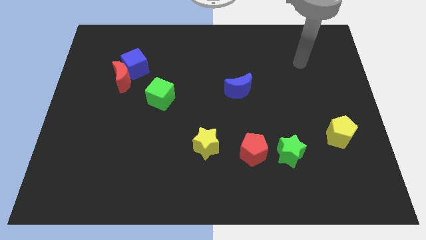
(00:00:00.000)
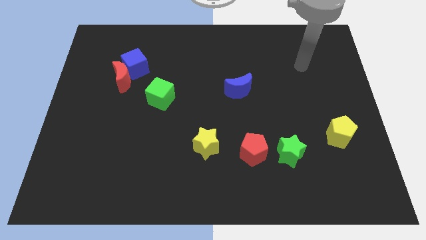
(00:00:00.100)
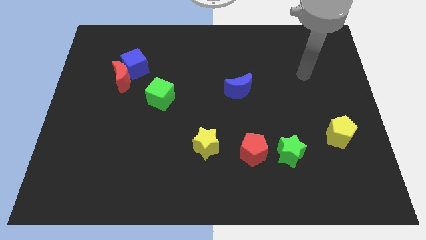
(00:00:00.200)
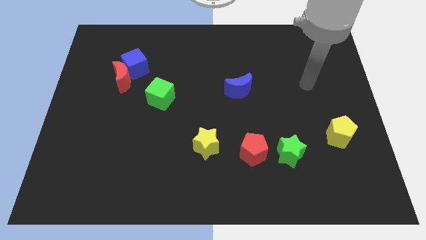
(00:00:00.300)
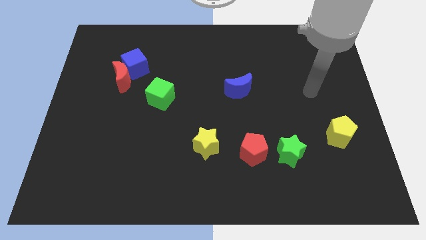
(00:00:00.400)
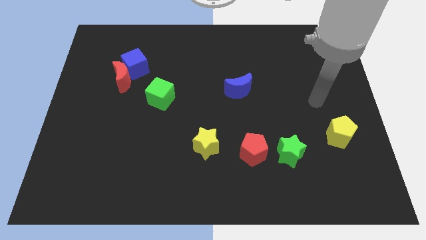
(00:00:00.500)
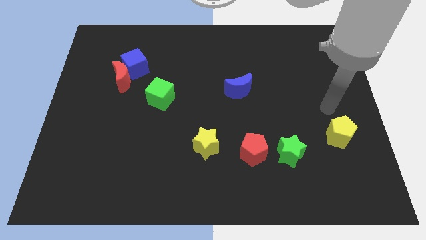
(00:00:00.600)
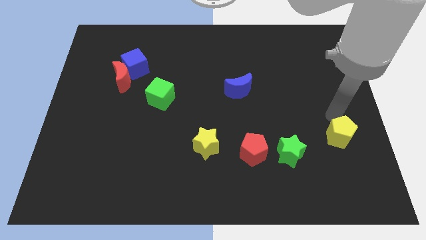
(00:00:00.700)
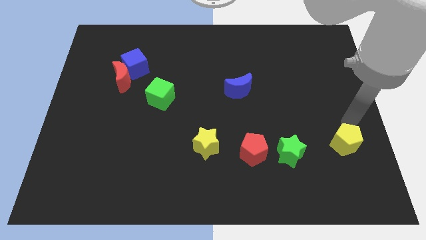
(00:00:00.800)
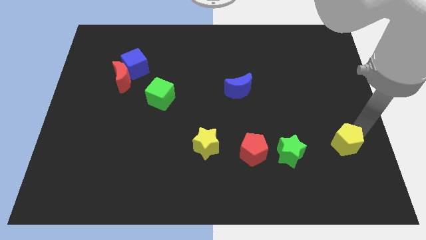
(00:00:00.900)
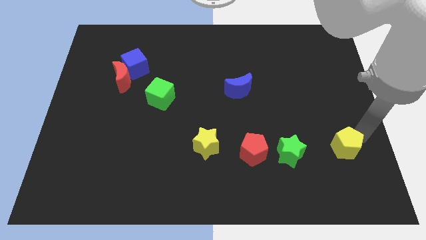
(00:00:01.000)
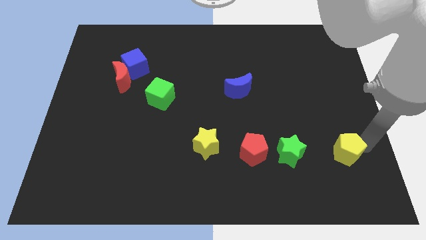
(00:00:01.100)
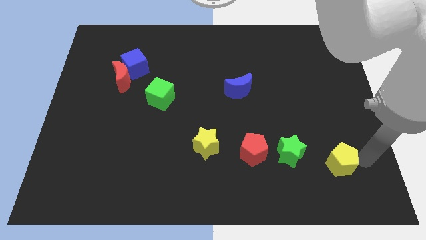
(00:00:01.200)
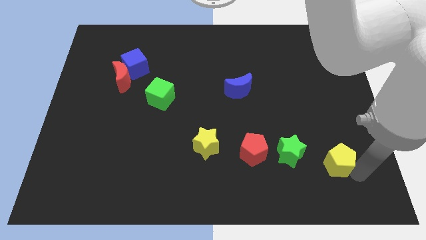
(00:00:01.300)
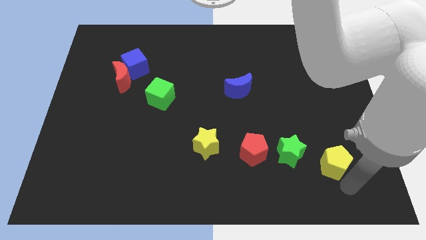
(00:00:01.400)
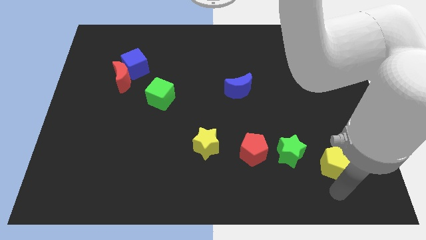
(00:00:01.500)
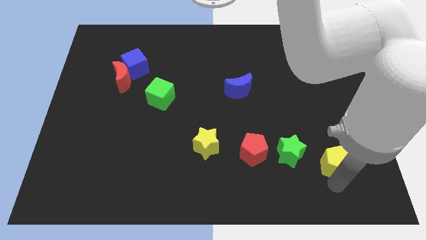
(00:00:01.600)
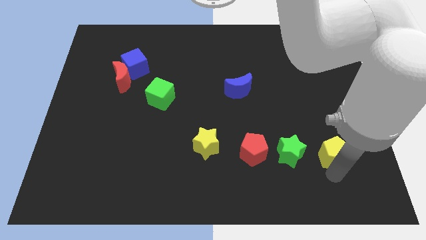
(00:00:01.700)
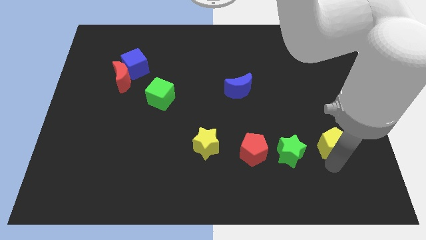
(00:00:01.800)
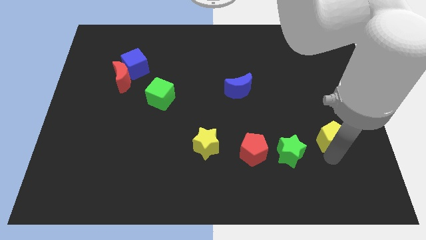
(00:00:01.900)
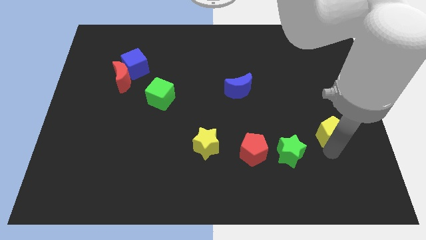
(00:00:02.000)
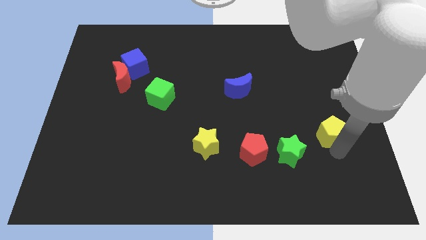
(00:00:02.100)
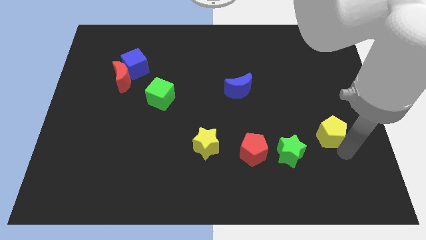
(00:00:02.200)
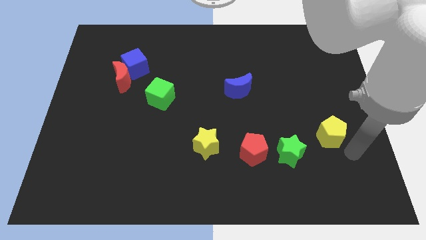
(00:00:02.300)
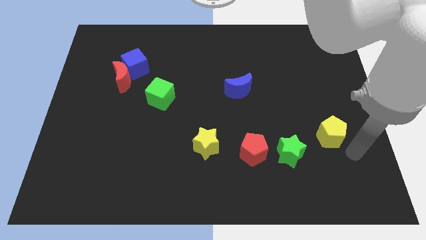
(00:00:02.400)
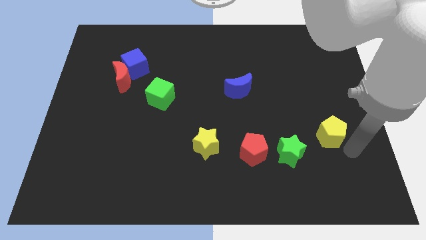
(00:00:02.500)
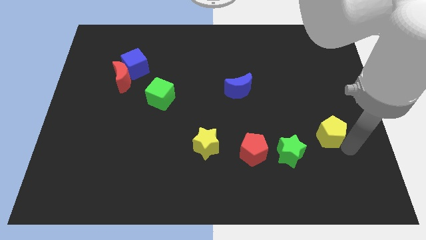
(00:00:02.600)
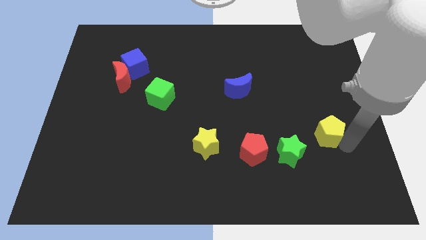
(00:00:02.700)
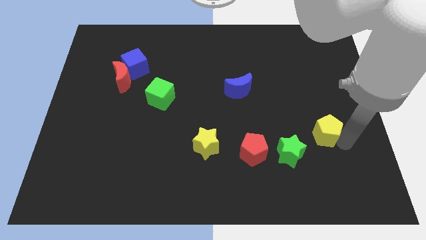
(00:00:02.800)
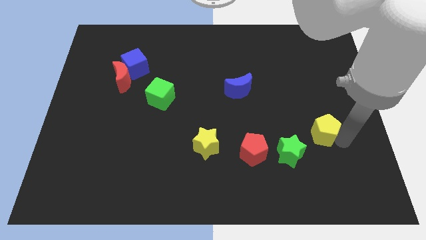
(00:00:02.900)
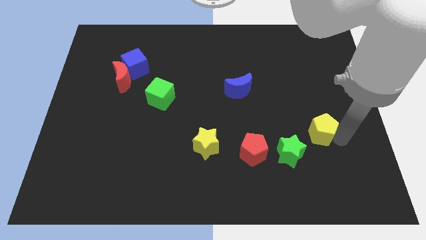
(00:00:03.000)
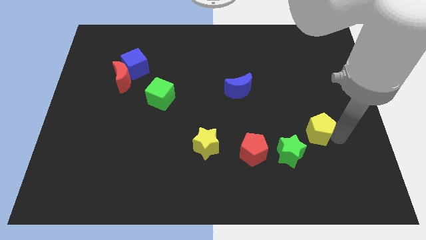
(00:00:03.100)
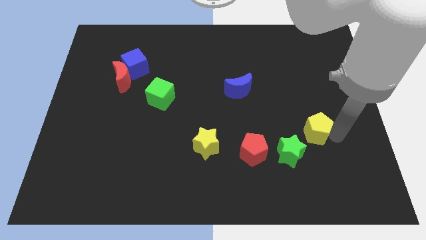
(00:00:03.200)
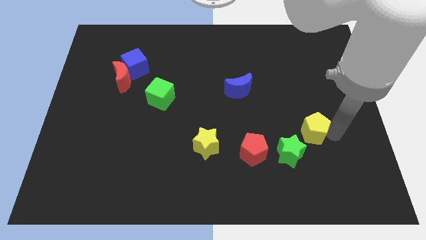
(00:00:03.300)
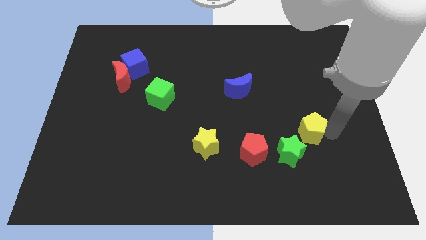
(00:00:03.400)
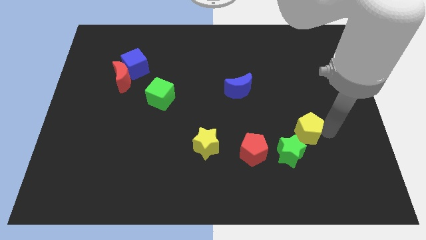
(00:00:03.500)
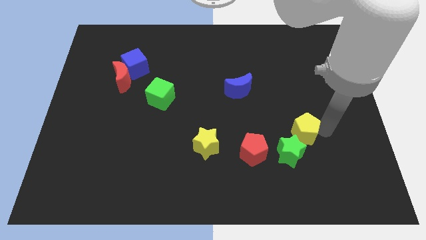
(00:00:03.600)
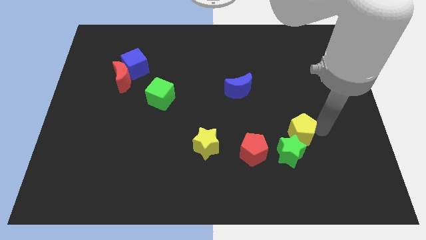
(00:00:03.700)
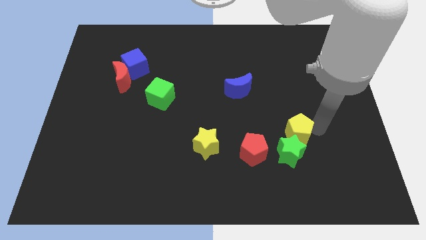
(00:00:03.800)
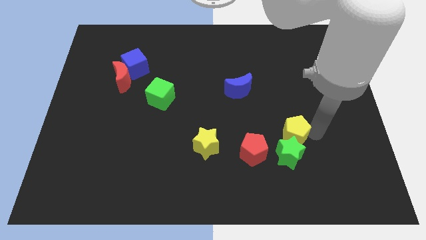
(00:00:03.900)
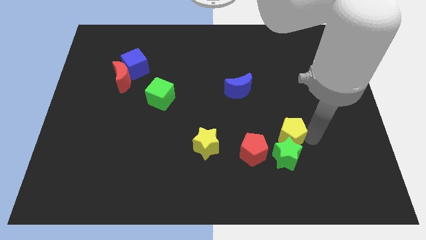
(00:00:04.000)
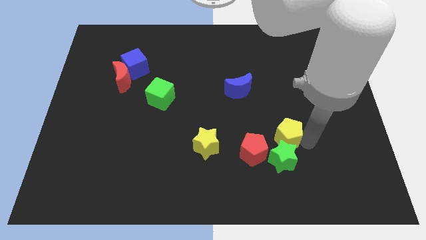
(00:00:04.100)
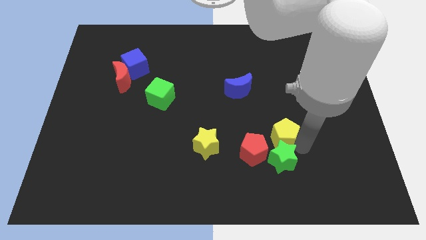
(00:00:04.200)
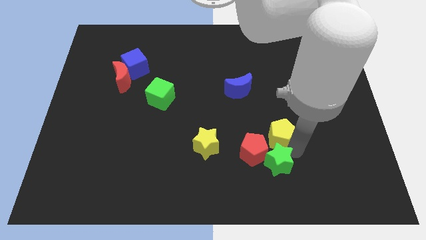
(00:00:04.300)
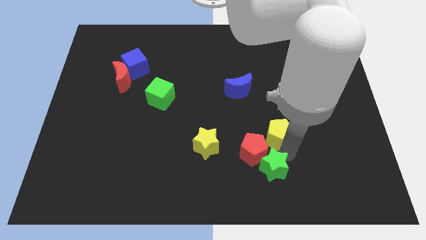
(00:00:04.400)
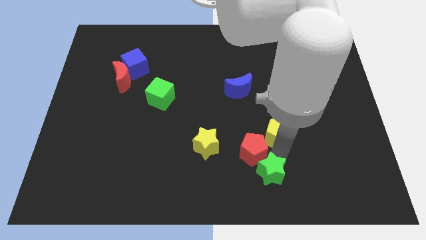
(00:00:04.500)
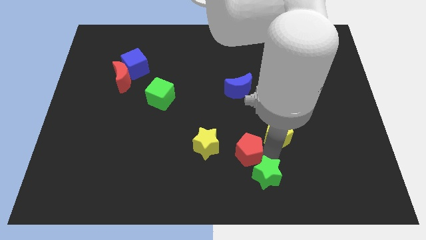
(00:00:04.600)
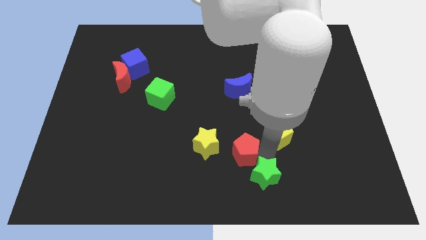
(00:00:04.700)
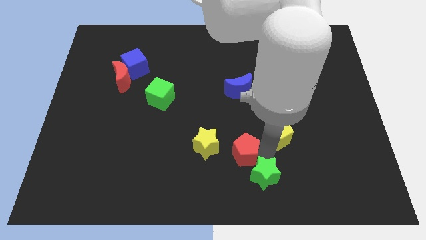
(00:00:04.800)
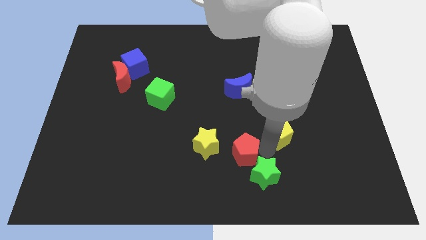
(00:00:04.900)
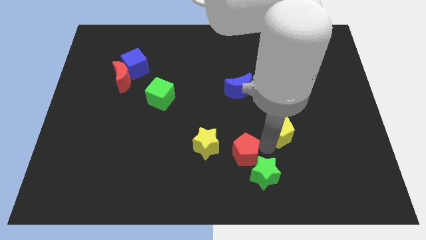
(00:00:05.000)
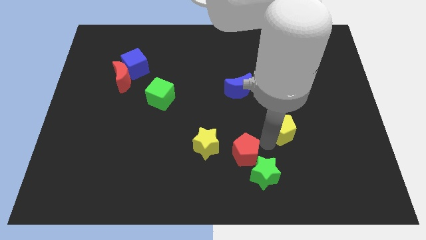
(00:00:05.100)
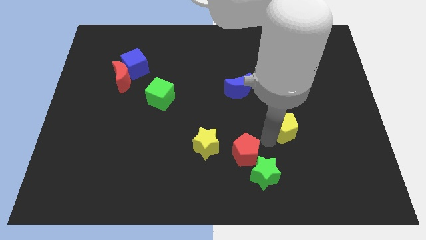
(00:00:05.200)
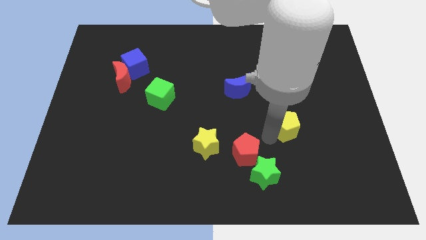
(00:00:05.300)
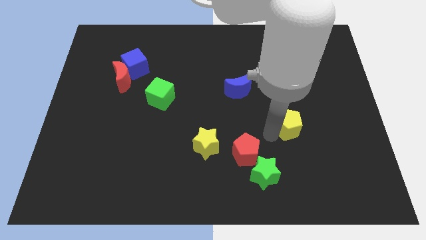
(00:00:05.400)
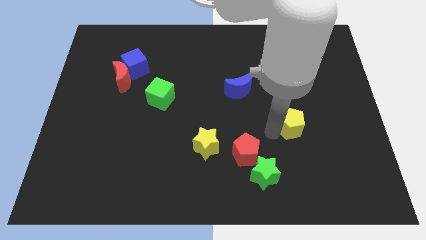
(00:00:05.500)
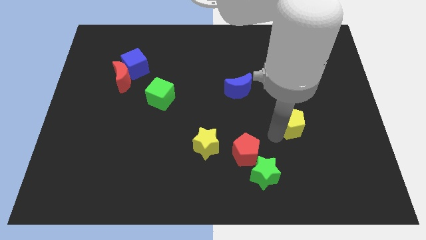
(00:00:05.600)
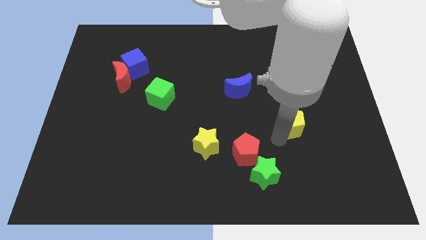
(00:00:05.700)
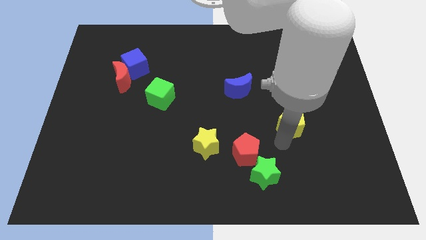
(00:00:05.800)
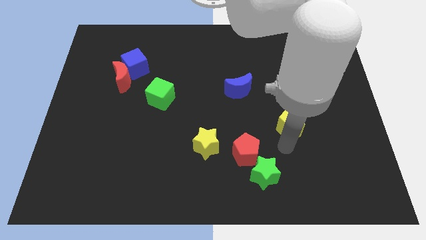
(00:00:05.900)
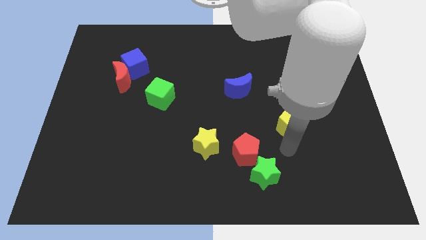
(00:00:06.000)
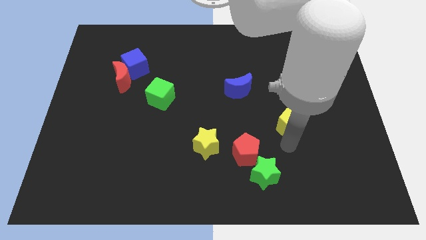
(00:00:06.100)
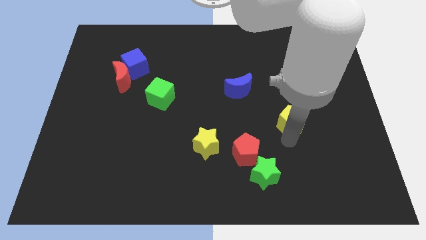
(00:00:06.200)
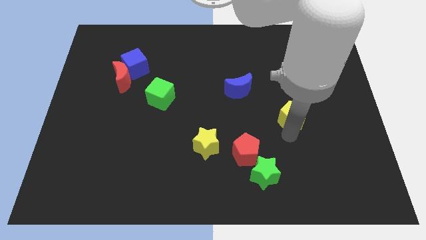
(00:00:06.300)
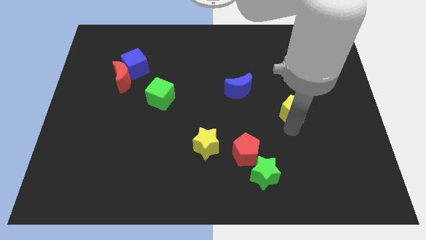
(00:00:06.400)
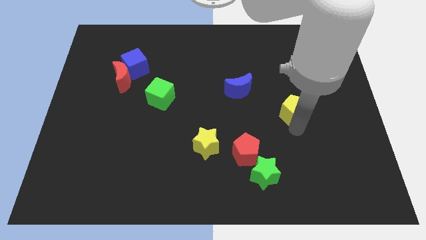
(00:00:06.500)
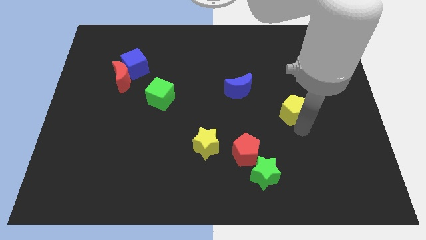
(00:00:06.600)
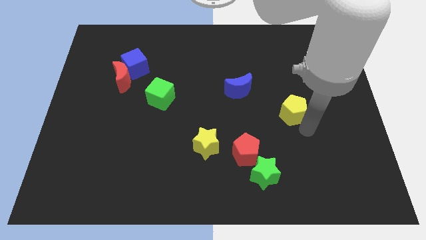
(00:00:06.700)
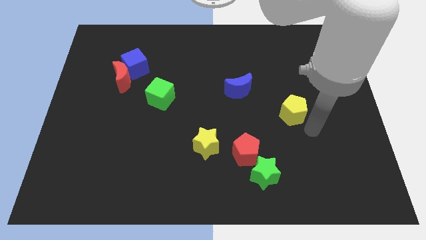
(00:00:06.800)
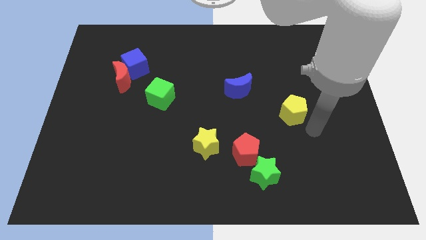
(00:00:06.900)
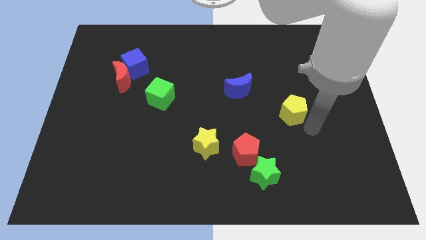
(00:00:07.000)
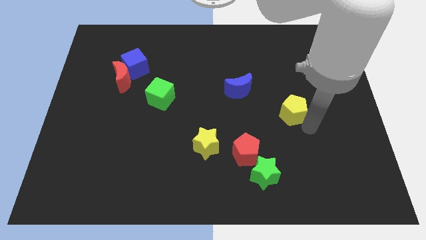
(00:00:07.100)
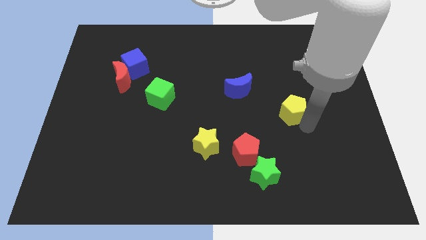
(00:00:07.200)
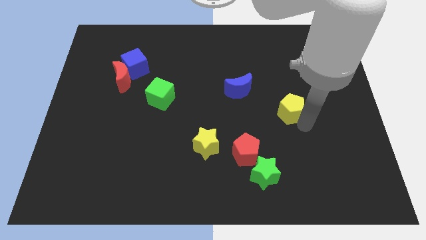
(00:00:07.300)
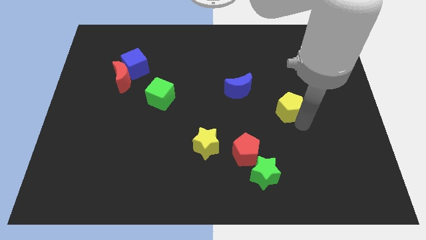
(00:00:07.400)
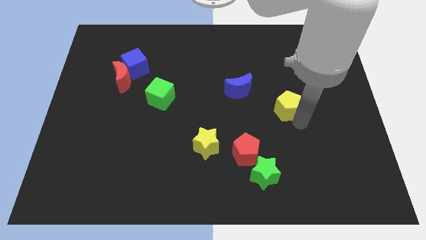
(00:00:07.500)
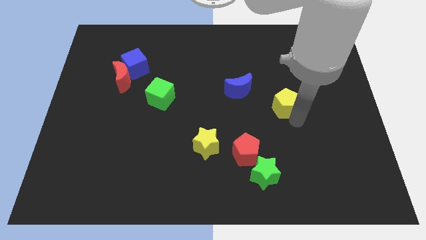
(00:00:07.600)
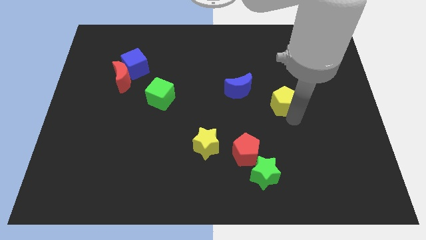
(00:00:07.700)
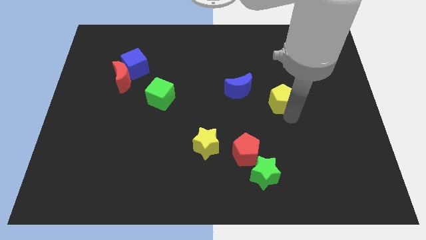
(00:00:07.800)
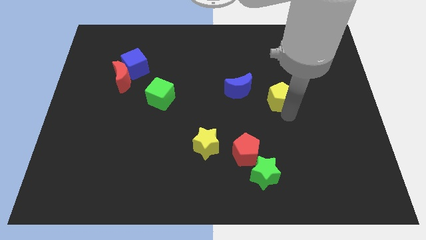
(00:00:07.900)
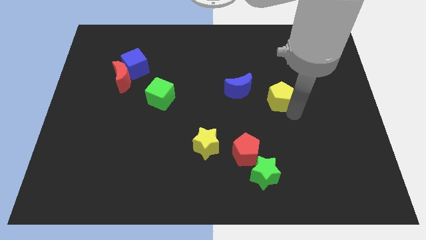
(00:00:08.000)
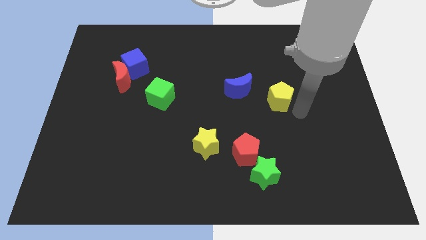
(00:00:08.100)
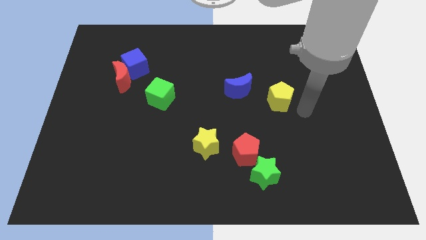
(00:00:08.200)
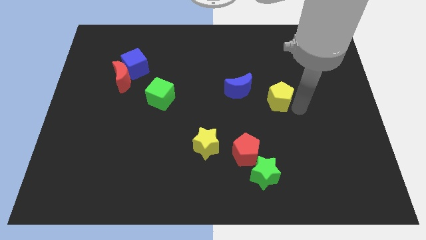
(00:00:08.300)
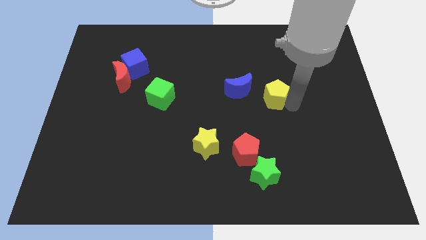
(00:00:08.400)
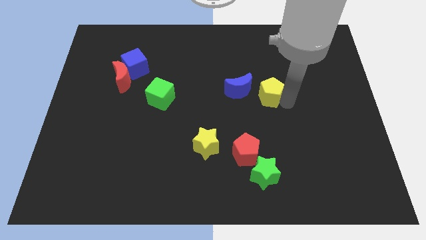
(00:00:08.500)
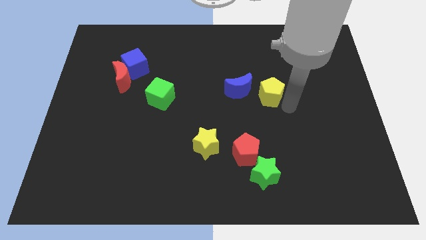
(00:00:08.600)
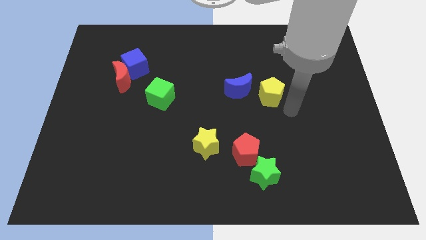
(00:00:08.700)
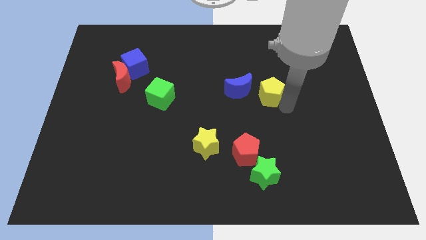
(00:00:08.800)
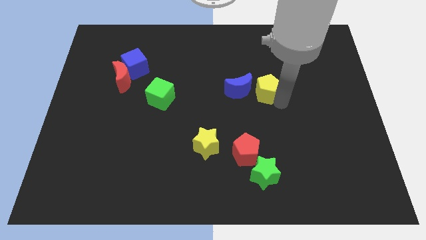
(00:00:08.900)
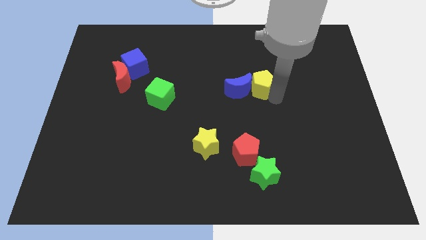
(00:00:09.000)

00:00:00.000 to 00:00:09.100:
move the yellow pentagon diagonally upwards and to the left
